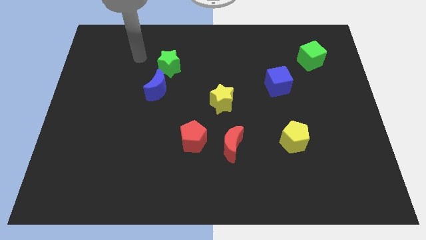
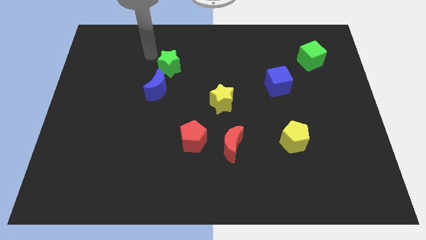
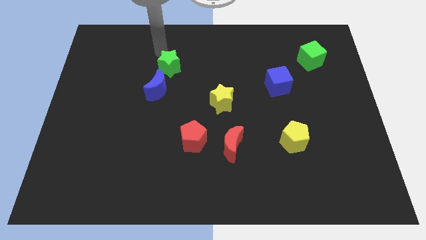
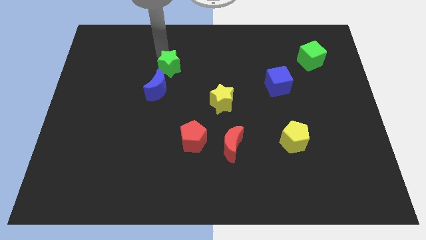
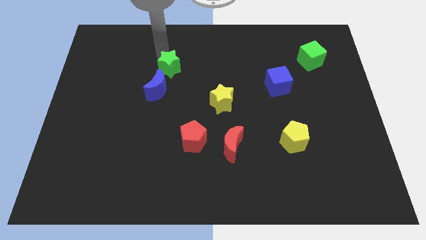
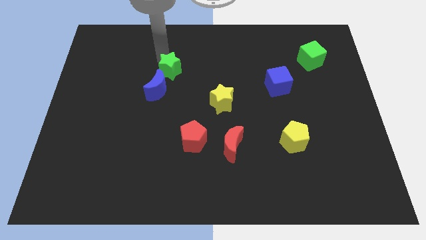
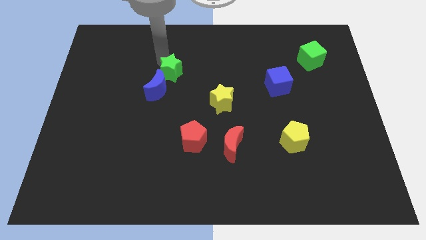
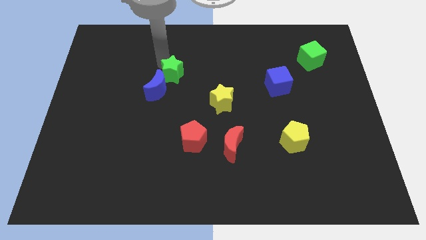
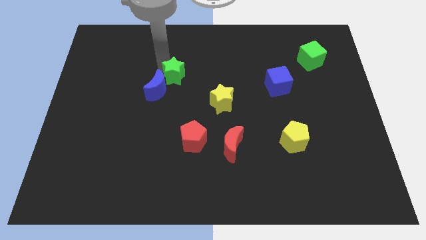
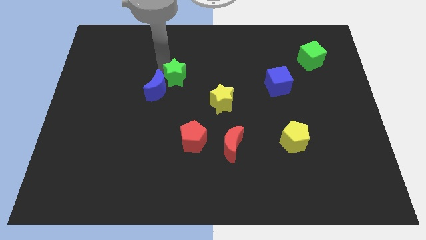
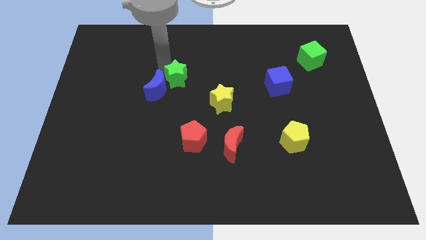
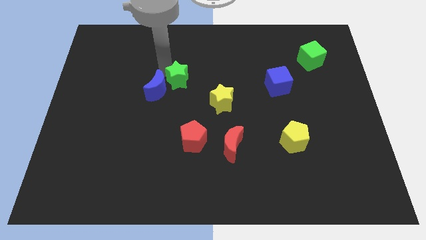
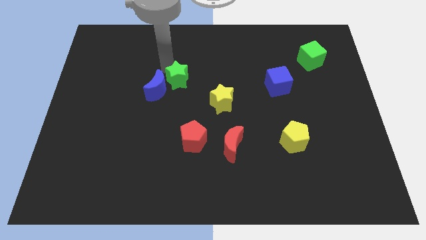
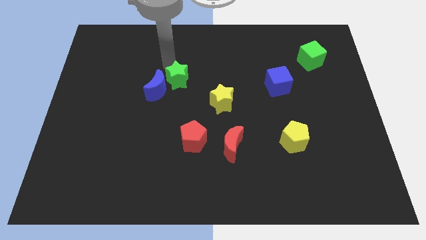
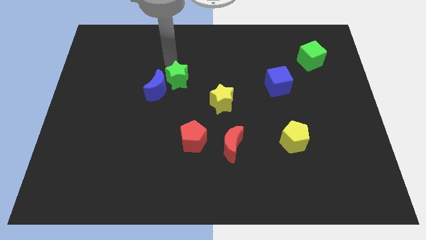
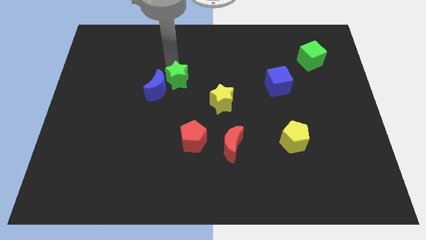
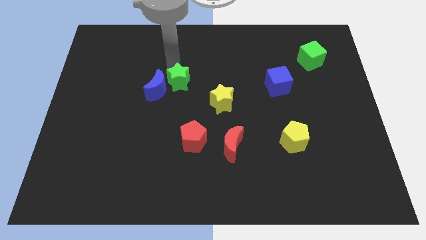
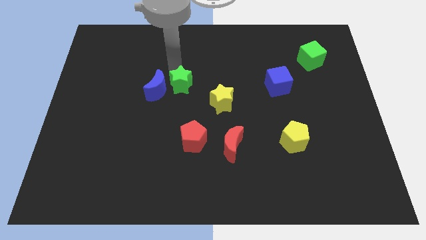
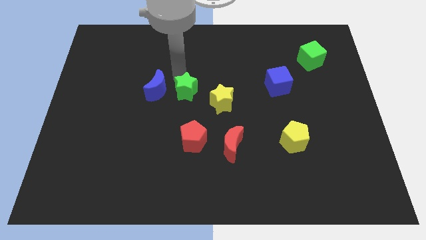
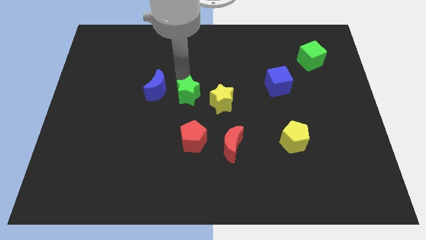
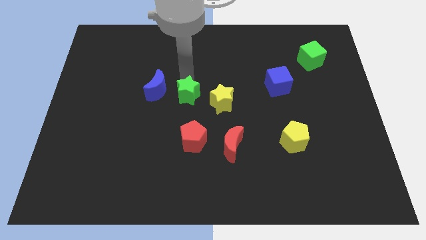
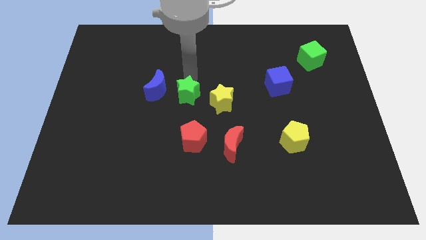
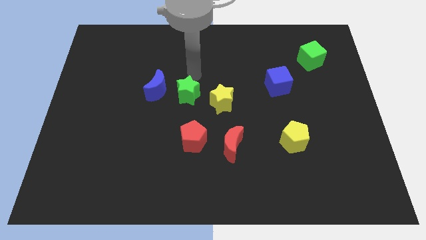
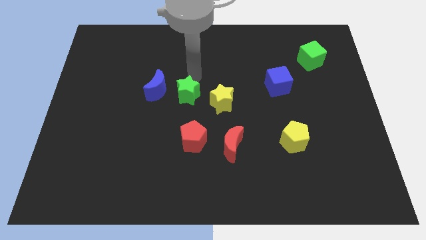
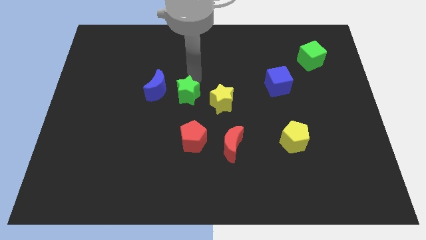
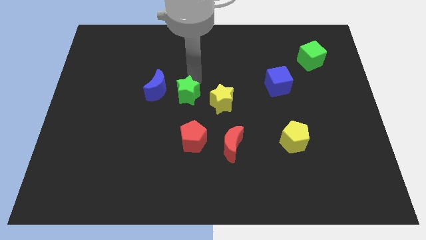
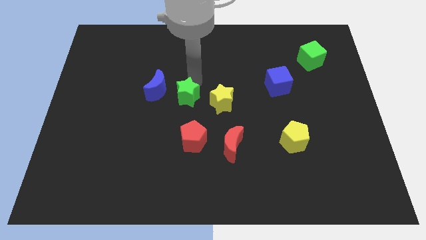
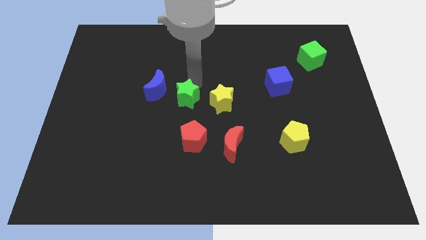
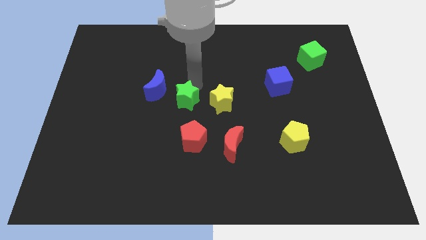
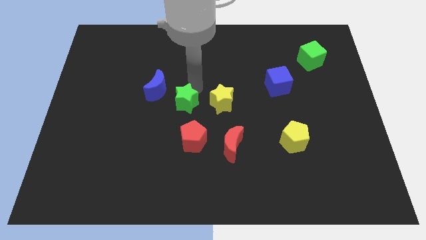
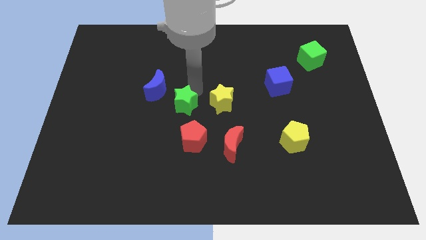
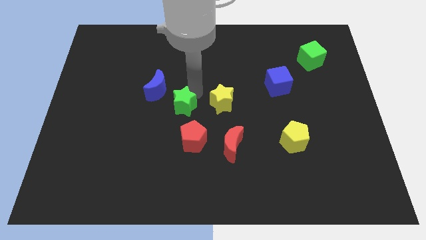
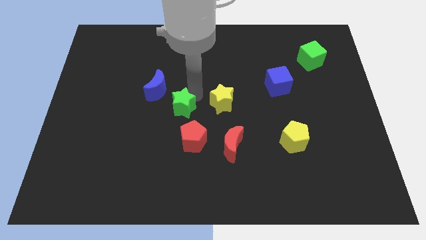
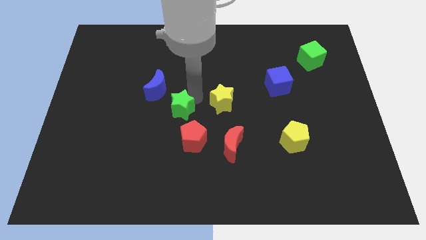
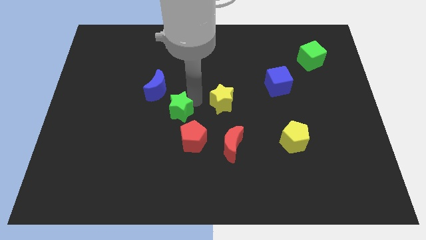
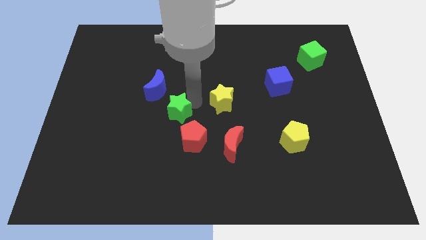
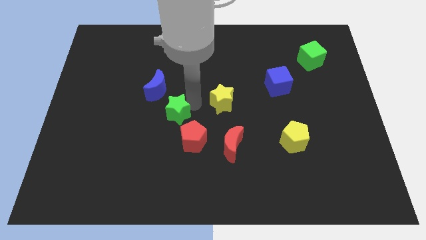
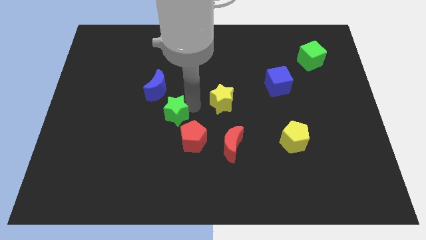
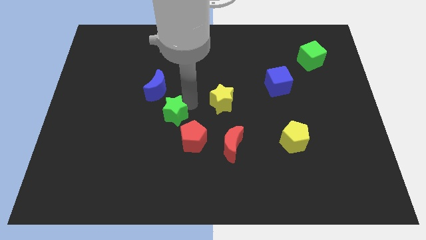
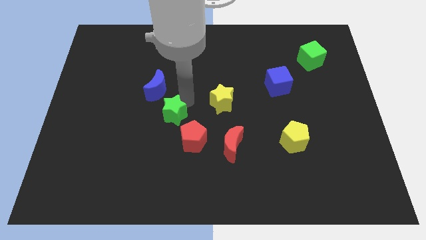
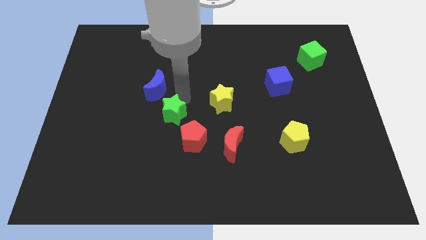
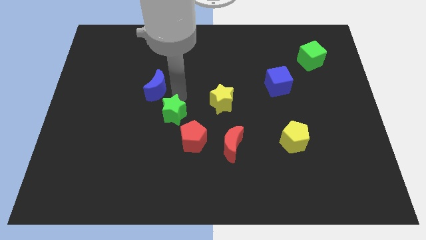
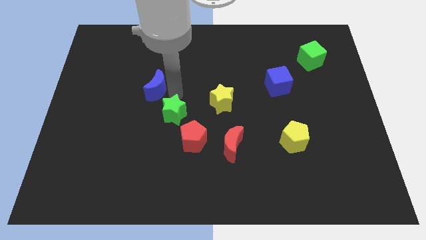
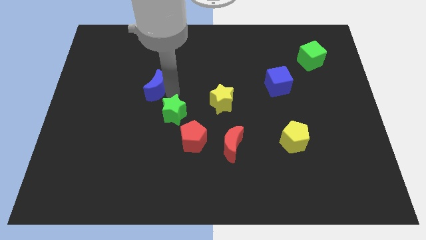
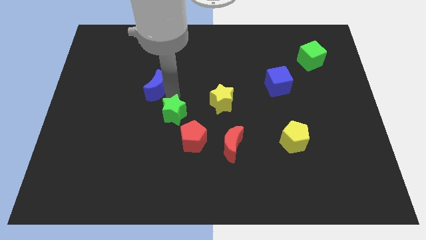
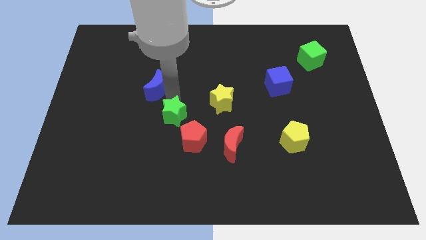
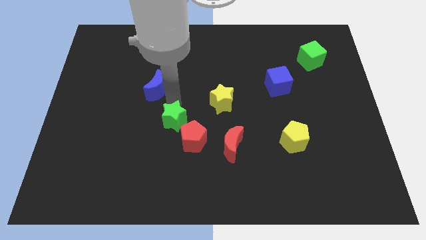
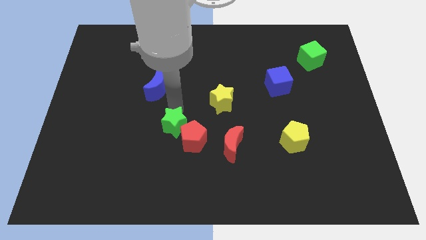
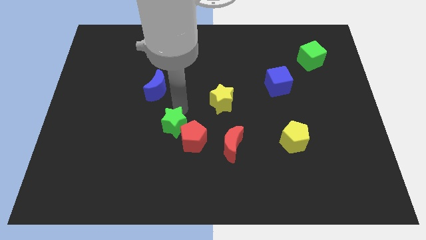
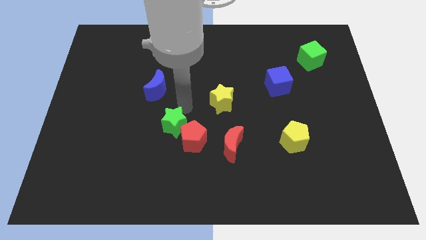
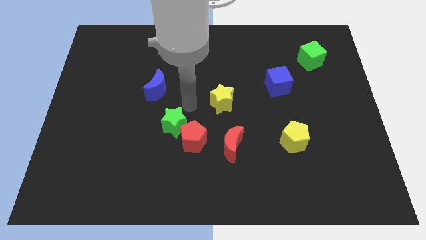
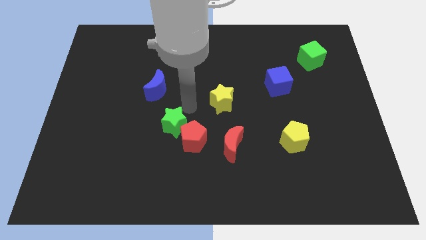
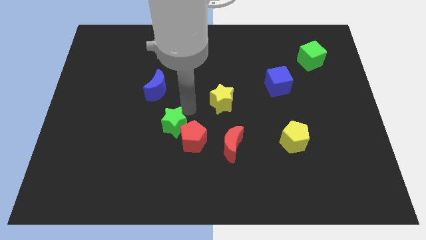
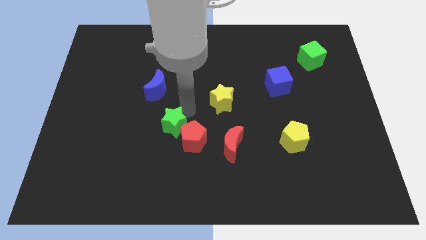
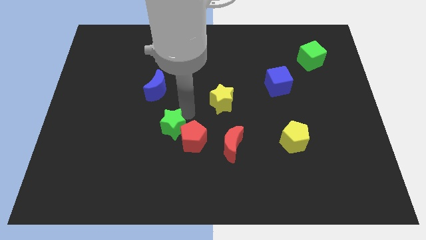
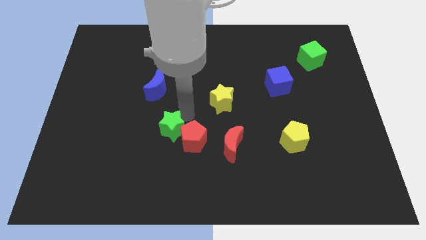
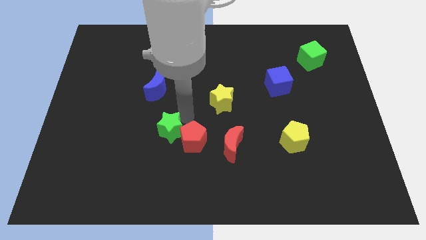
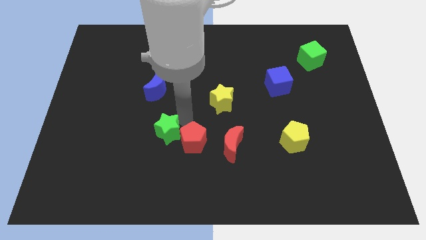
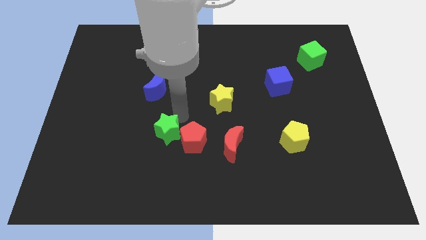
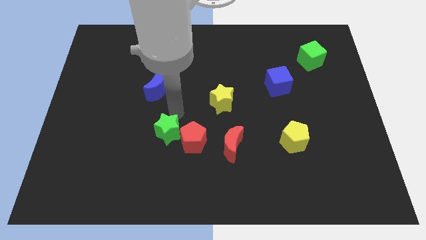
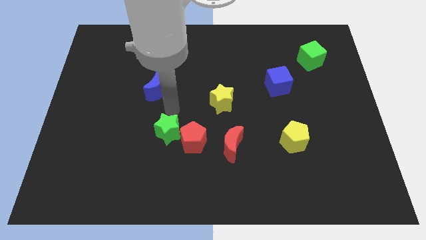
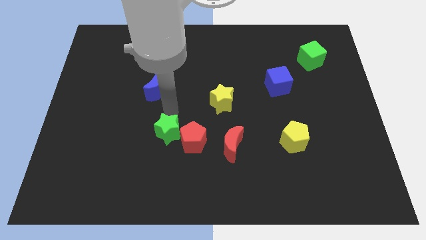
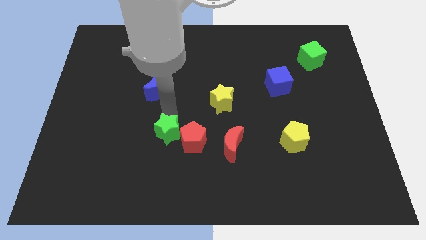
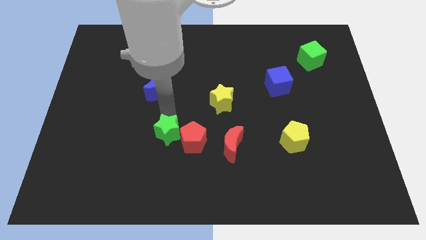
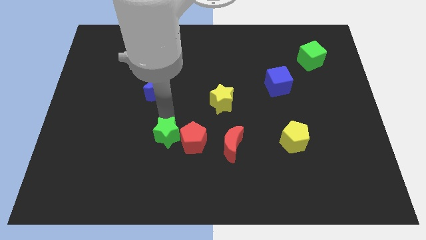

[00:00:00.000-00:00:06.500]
push the green star diagonally down and to the left of the red pentagon

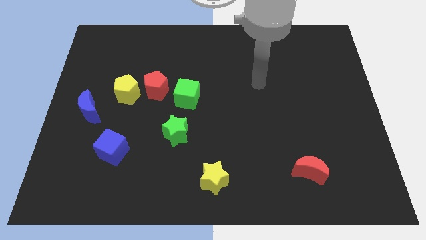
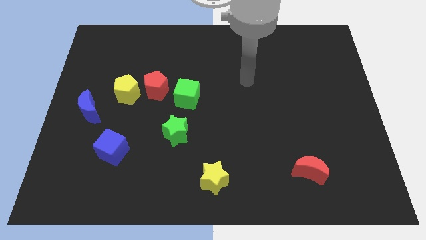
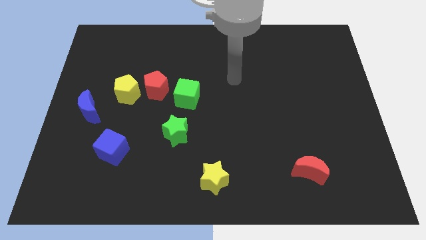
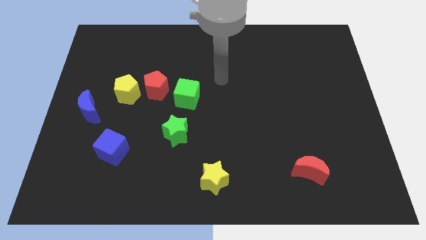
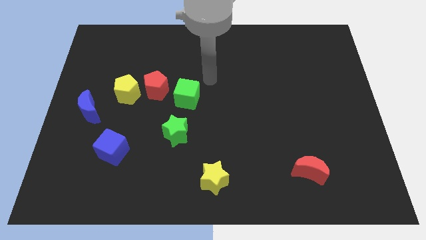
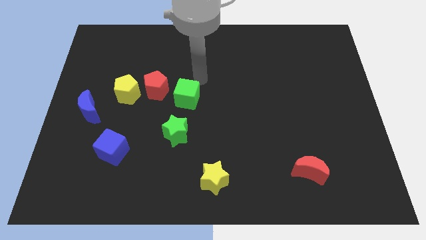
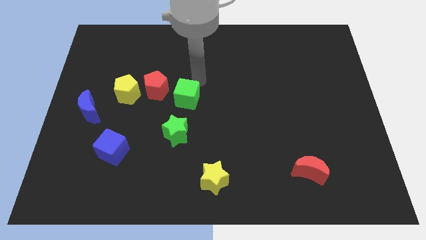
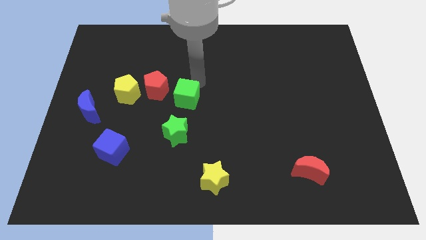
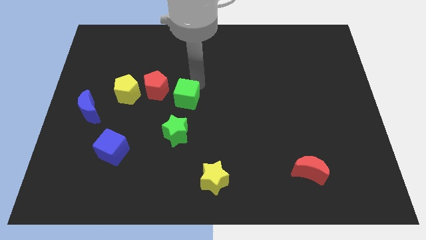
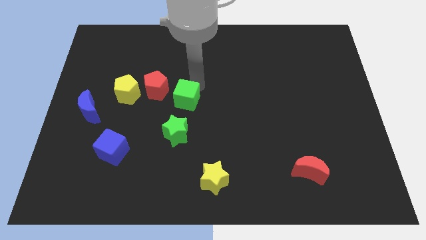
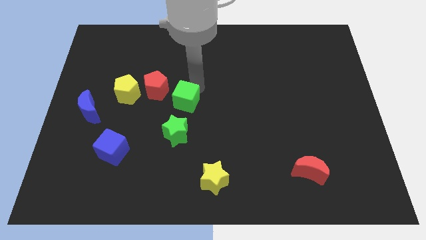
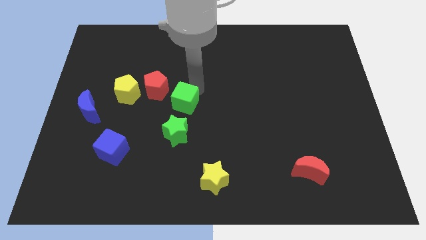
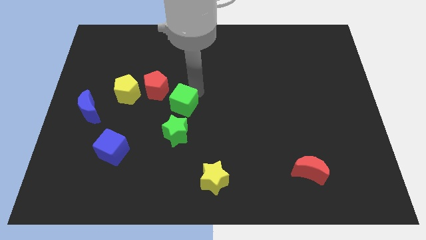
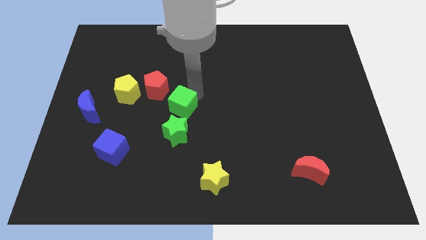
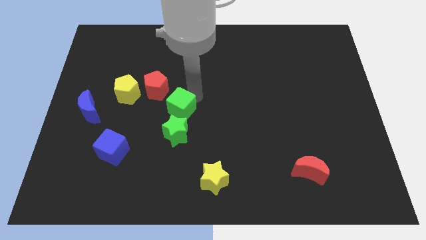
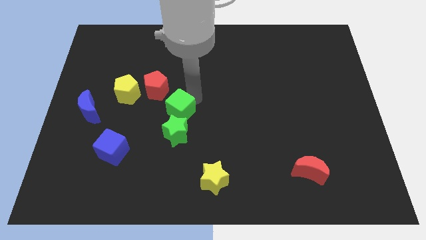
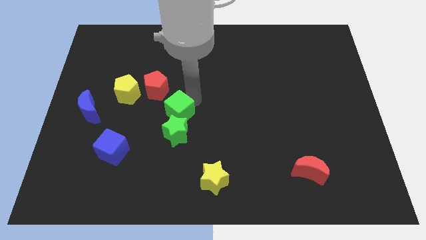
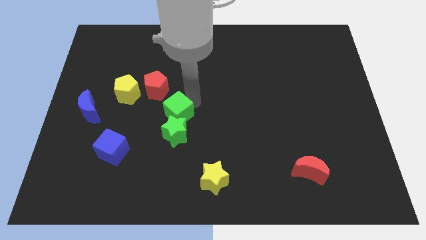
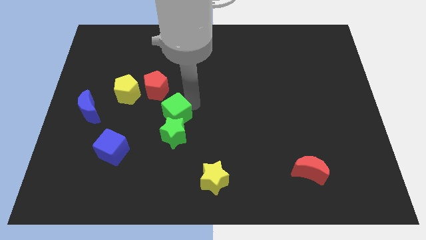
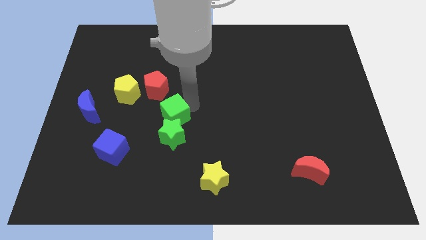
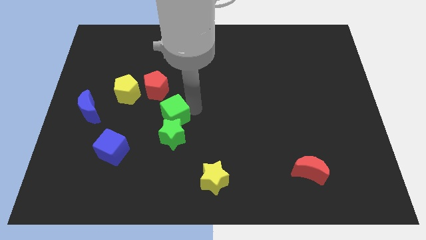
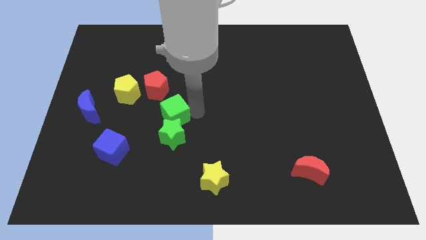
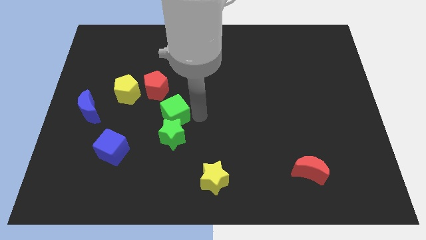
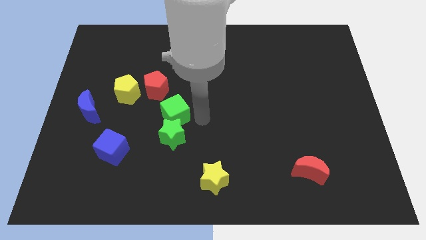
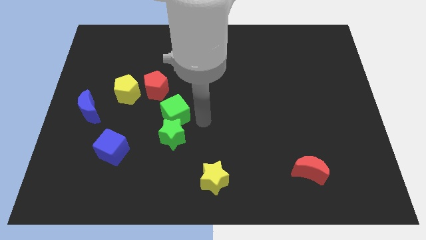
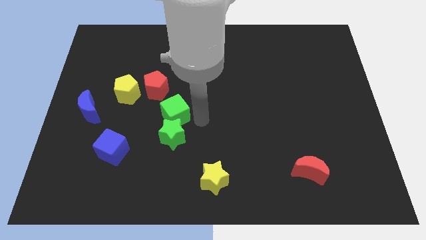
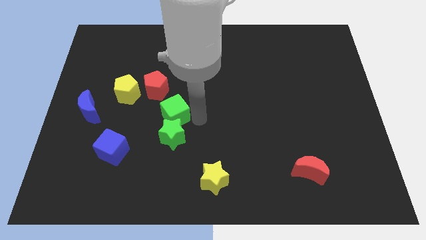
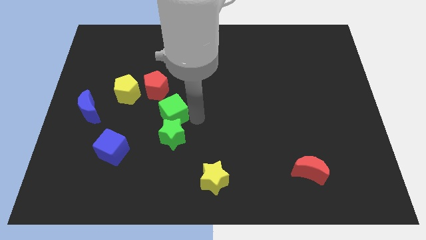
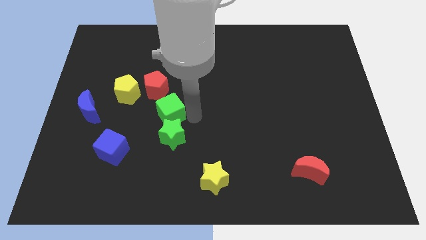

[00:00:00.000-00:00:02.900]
slide the green cube to the bottom right of the yellow pentagon
